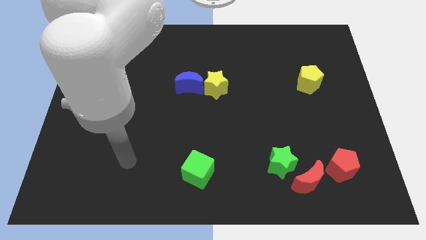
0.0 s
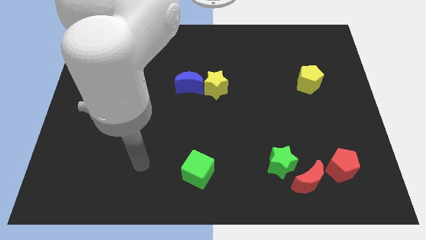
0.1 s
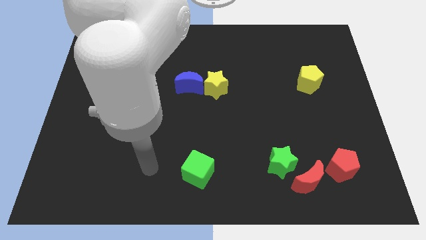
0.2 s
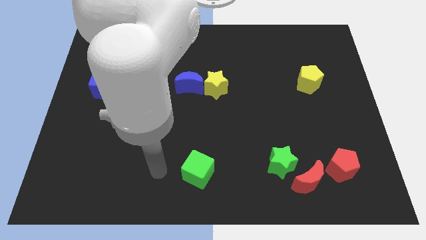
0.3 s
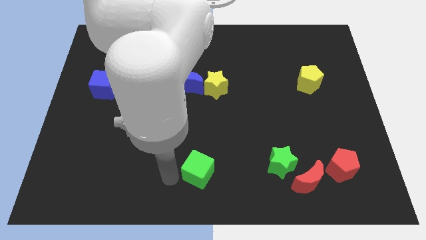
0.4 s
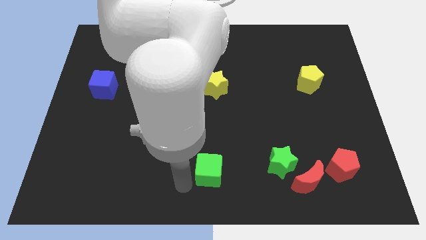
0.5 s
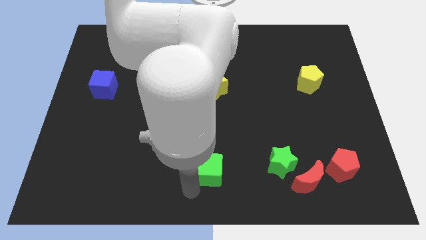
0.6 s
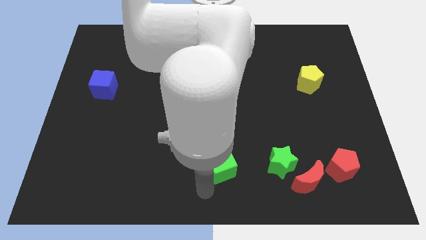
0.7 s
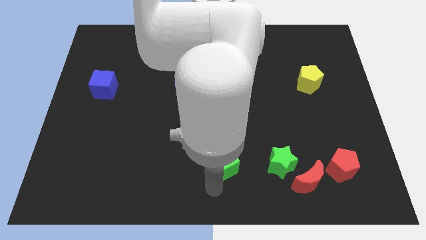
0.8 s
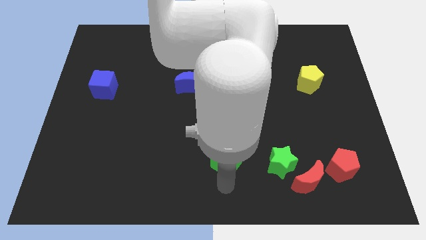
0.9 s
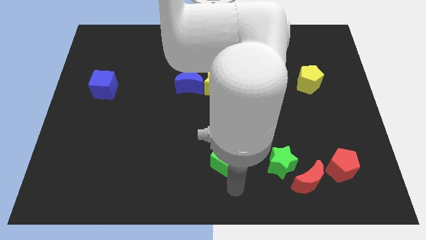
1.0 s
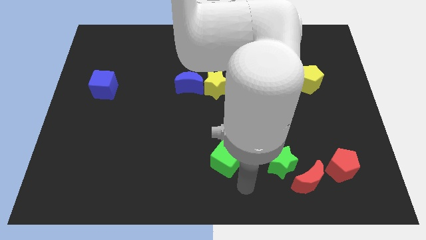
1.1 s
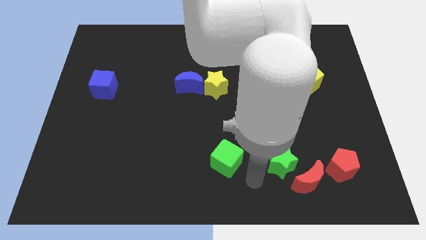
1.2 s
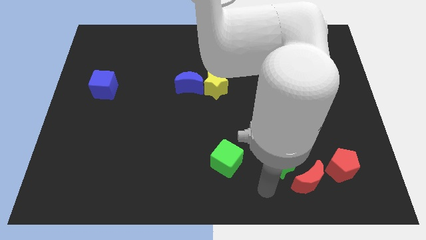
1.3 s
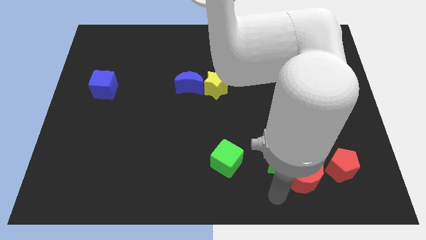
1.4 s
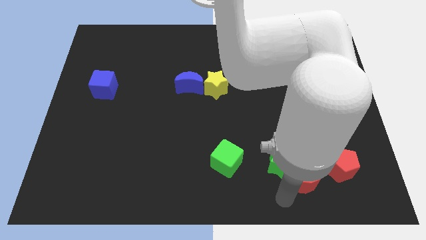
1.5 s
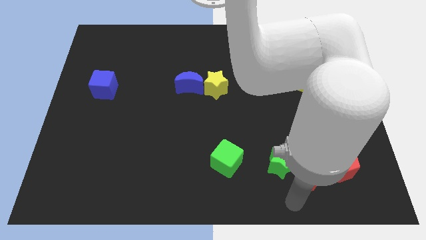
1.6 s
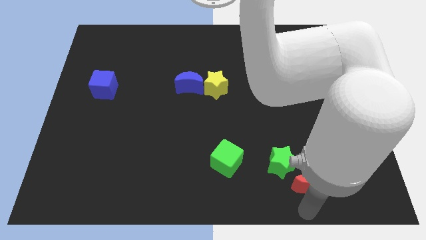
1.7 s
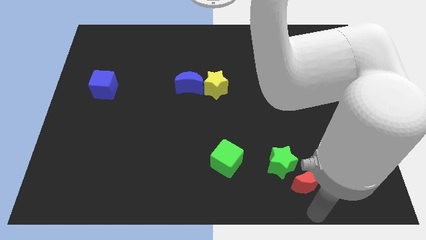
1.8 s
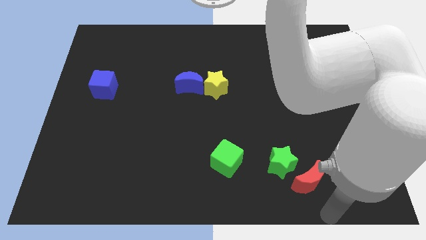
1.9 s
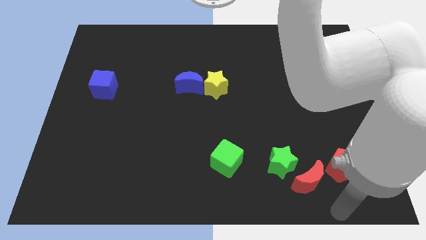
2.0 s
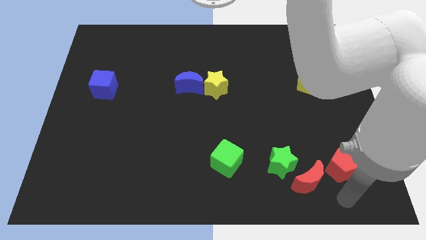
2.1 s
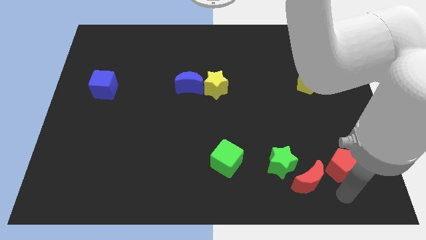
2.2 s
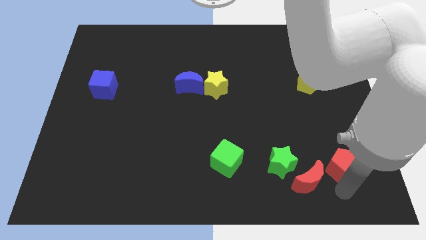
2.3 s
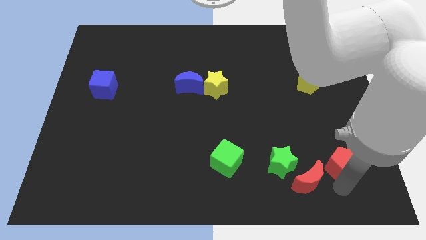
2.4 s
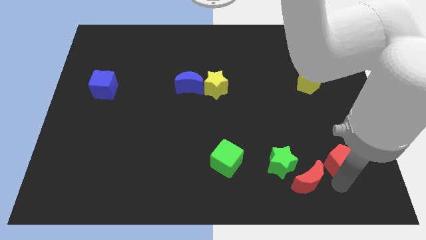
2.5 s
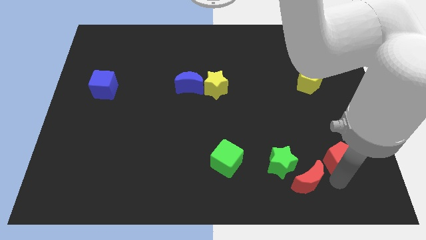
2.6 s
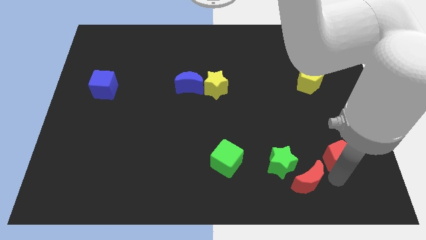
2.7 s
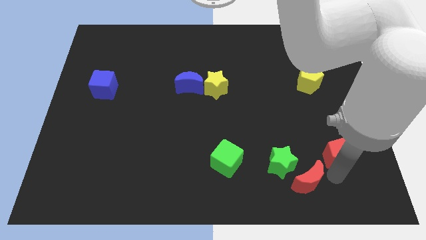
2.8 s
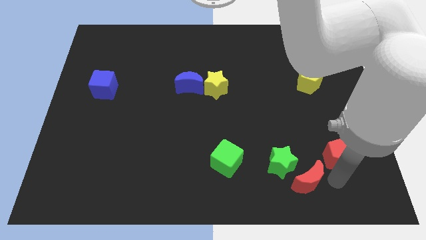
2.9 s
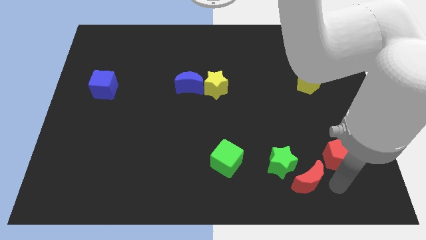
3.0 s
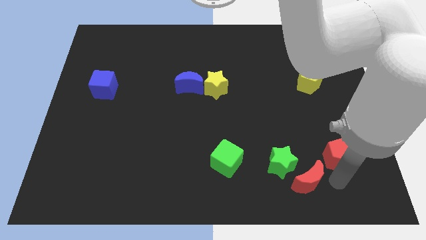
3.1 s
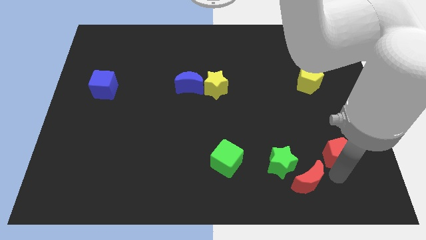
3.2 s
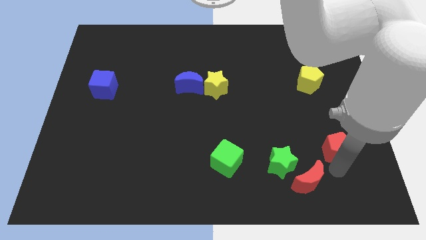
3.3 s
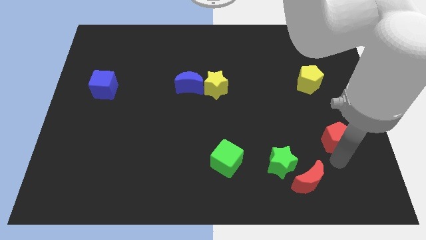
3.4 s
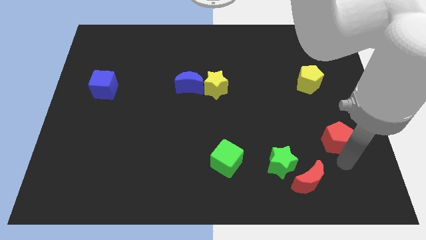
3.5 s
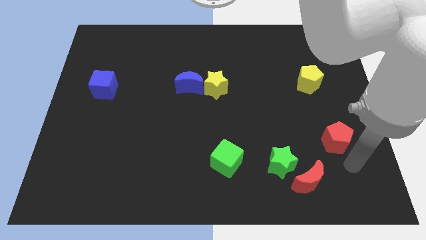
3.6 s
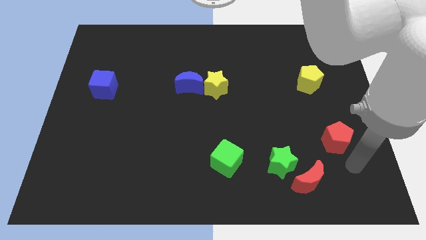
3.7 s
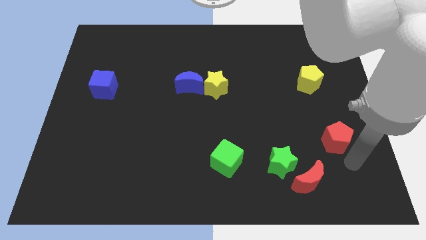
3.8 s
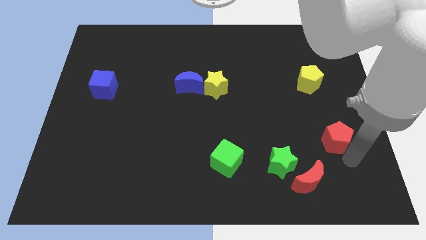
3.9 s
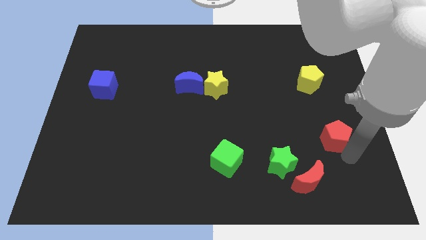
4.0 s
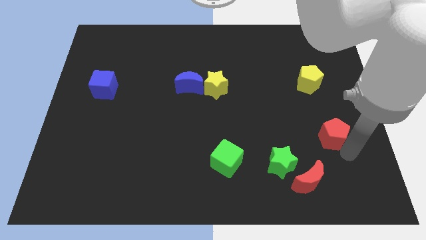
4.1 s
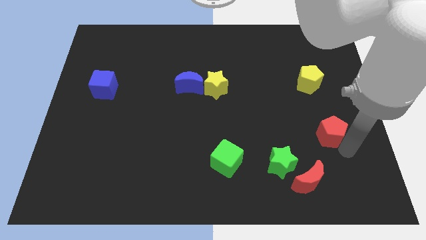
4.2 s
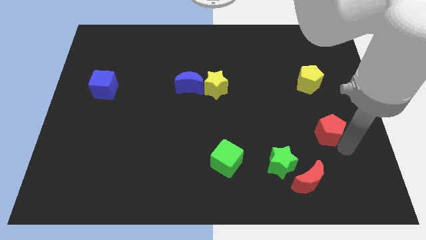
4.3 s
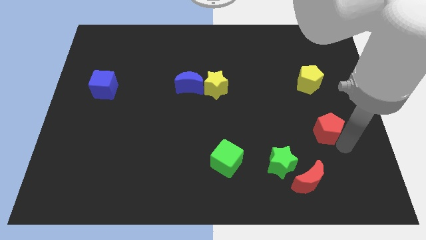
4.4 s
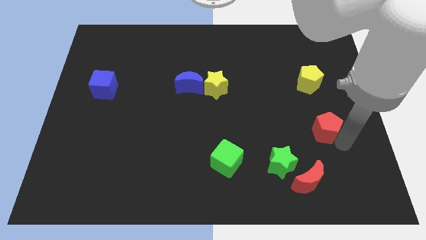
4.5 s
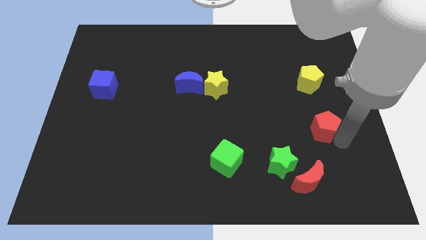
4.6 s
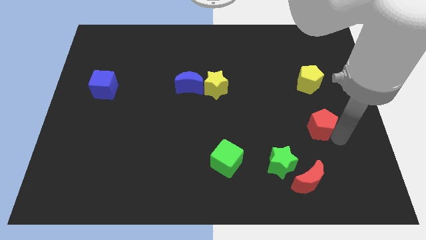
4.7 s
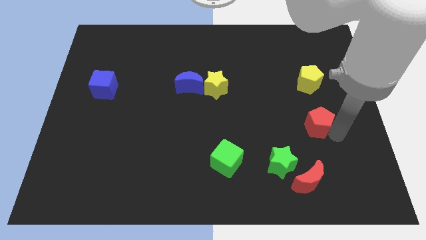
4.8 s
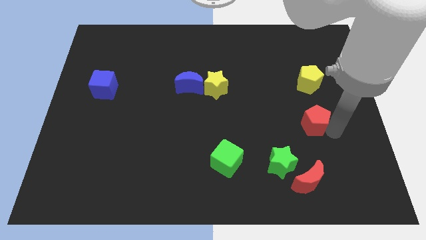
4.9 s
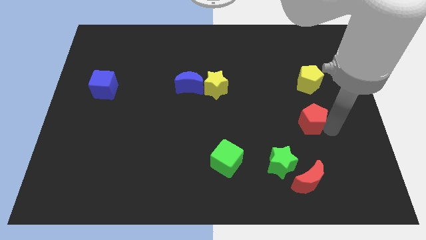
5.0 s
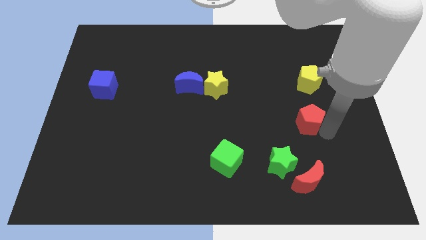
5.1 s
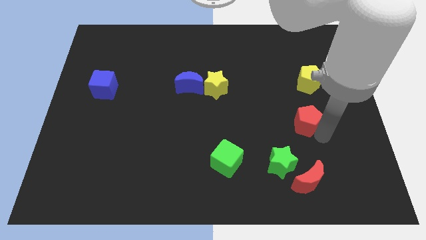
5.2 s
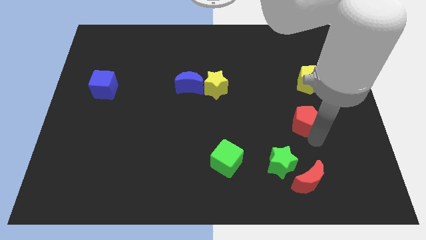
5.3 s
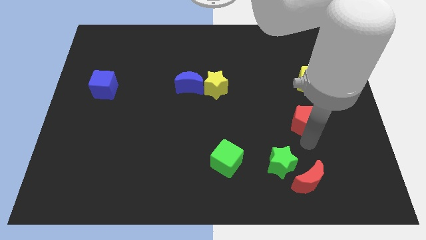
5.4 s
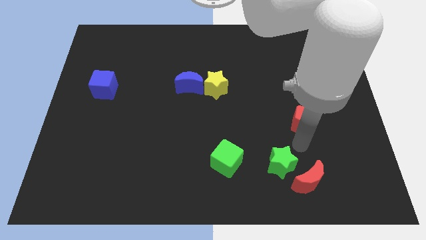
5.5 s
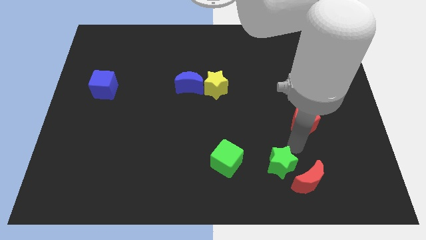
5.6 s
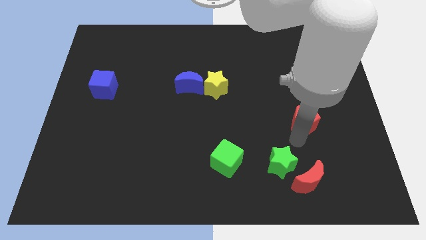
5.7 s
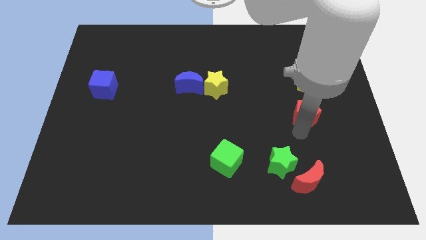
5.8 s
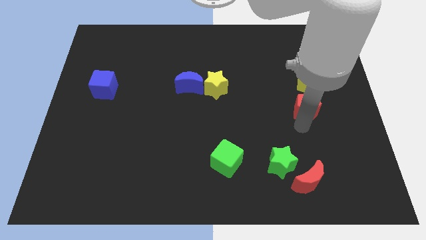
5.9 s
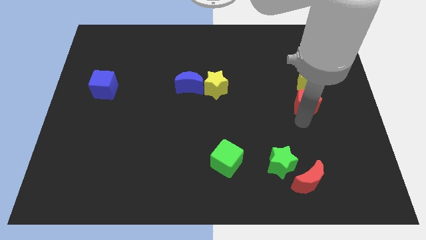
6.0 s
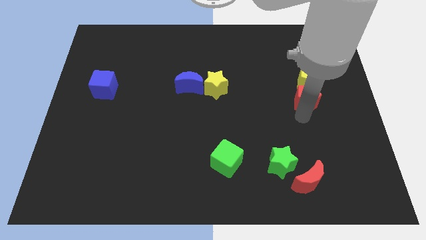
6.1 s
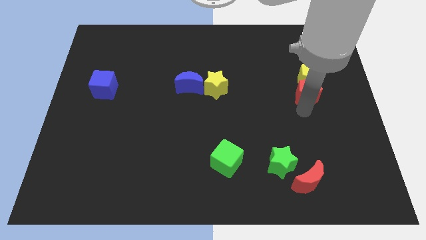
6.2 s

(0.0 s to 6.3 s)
put the red pentagon to the yellow pentagon

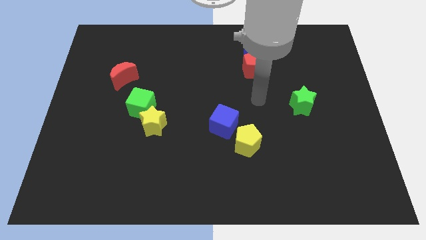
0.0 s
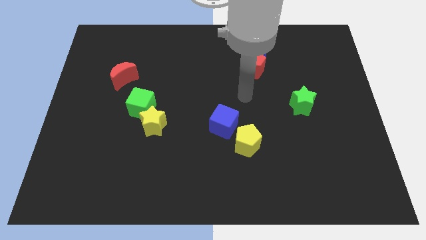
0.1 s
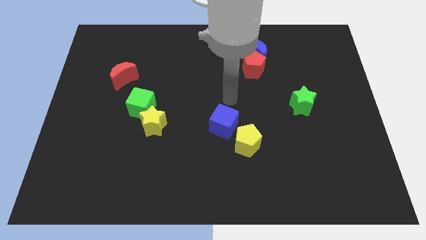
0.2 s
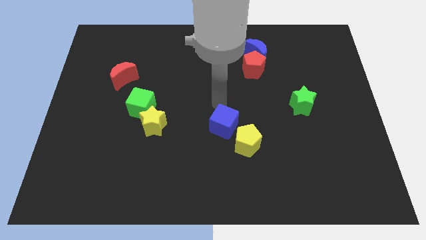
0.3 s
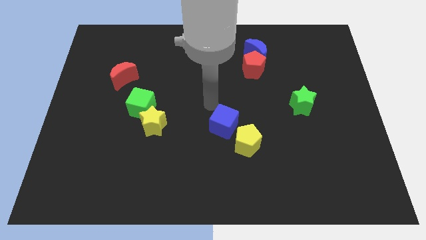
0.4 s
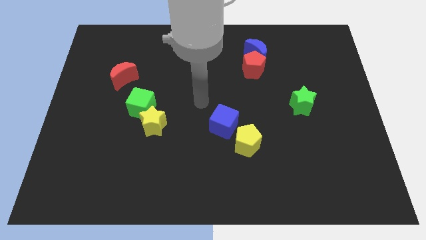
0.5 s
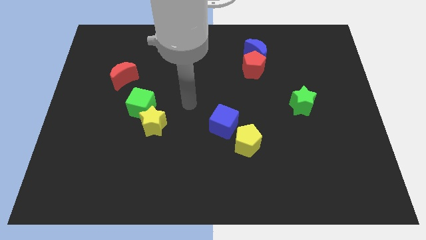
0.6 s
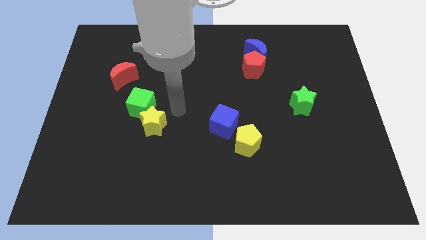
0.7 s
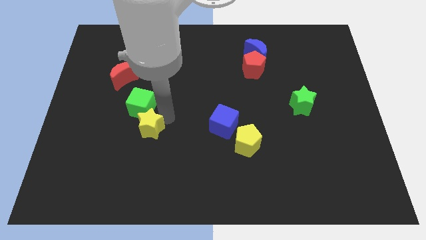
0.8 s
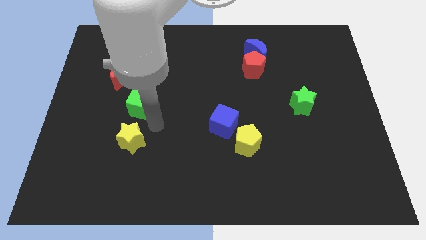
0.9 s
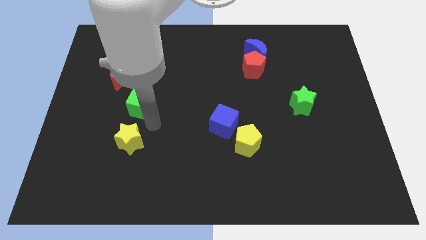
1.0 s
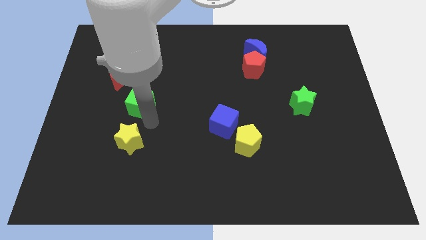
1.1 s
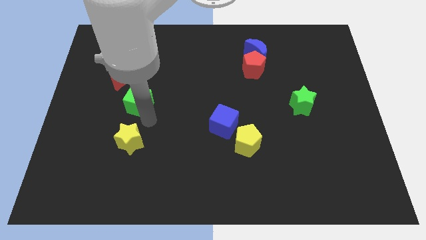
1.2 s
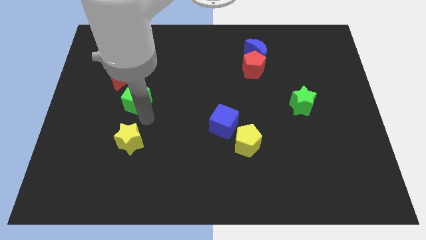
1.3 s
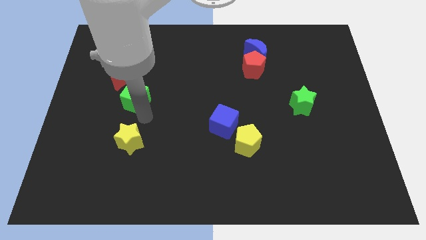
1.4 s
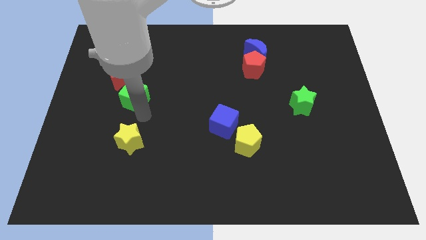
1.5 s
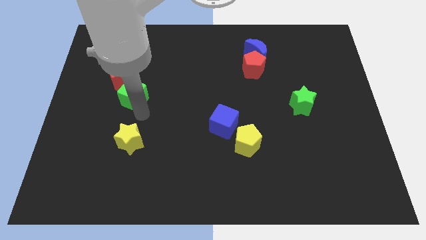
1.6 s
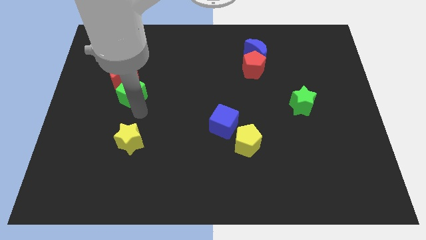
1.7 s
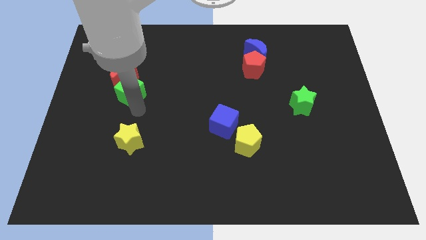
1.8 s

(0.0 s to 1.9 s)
slide the green cube close to the red moon
